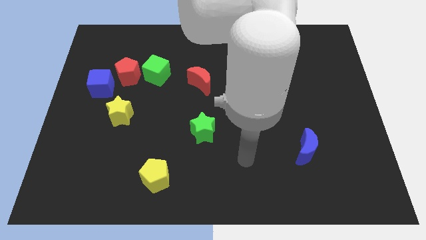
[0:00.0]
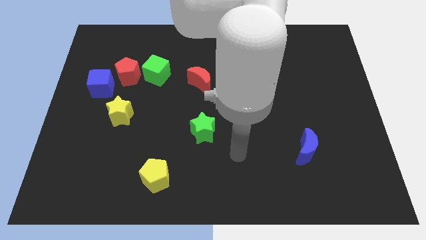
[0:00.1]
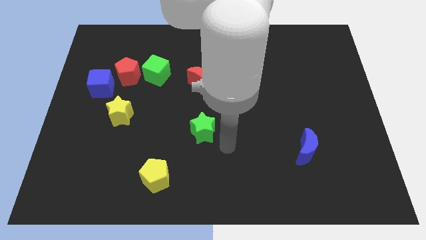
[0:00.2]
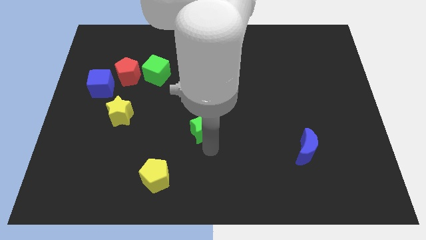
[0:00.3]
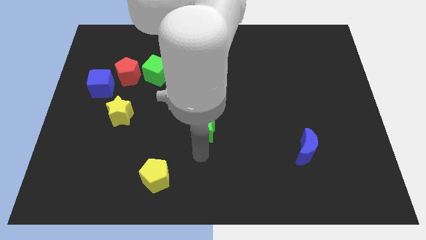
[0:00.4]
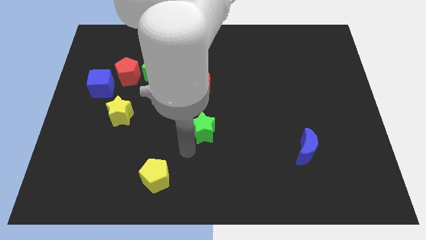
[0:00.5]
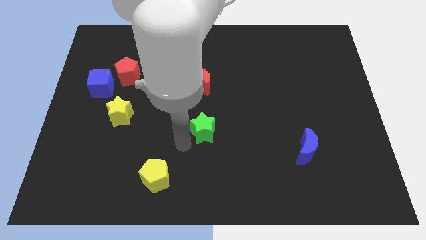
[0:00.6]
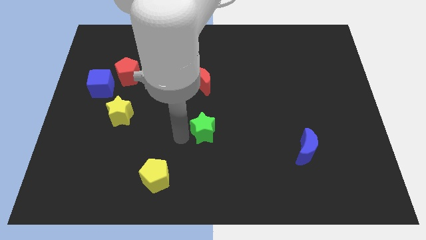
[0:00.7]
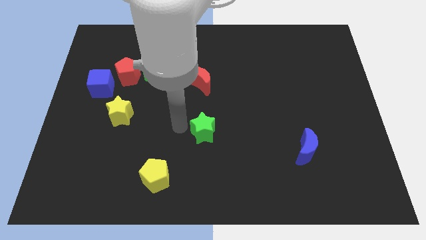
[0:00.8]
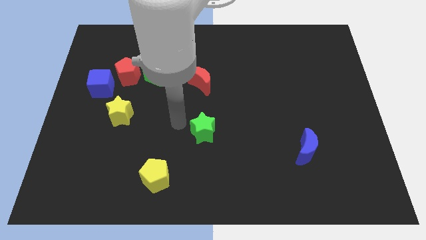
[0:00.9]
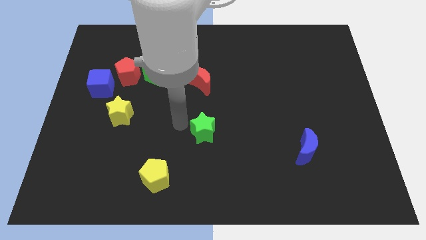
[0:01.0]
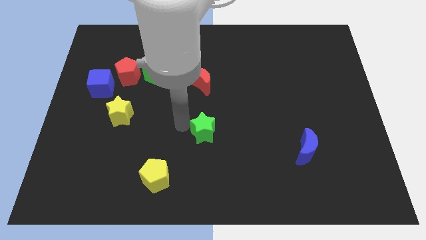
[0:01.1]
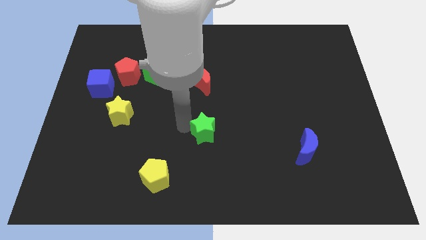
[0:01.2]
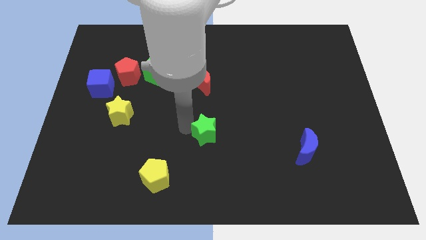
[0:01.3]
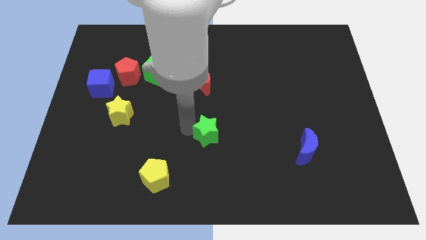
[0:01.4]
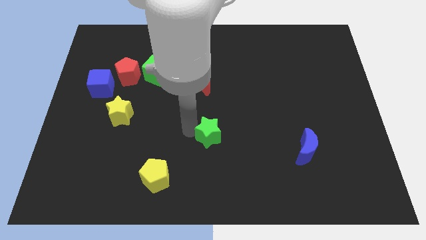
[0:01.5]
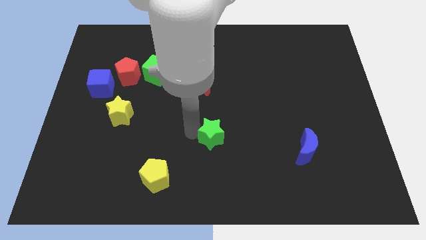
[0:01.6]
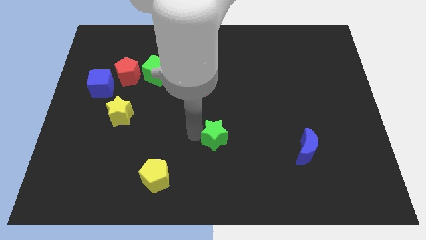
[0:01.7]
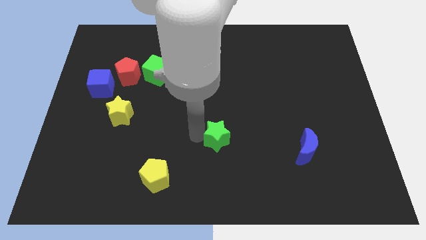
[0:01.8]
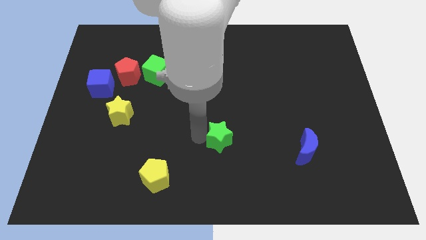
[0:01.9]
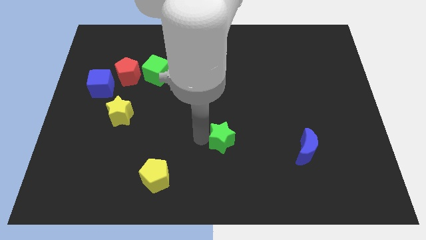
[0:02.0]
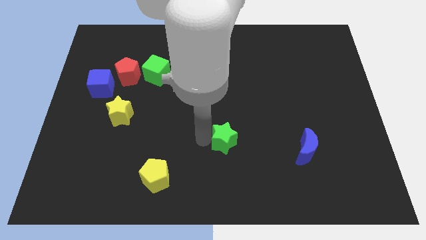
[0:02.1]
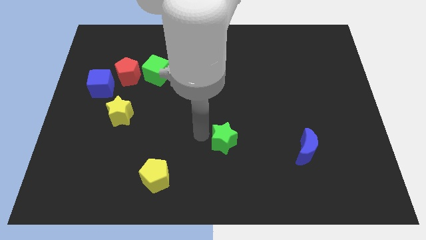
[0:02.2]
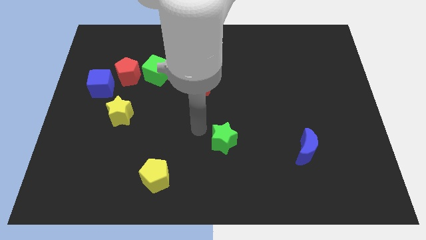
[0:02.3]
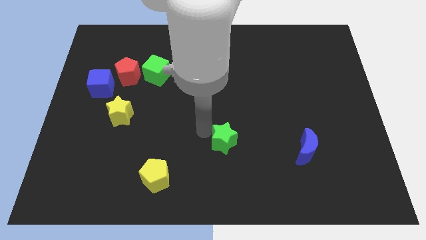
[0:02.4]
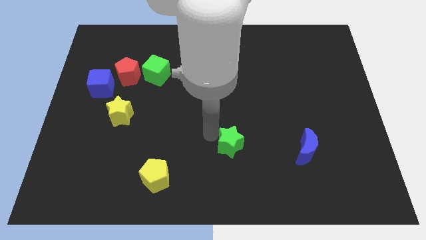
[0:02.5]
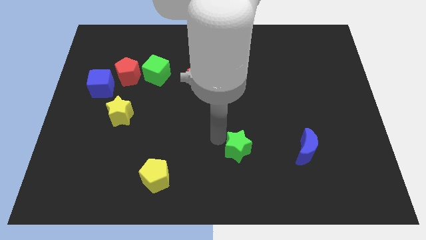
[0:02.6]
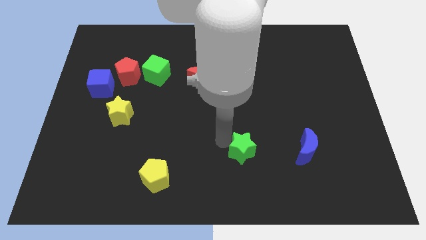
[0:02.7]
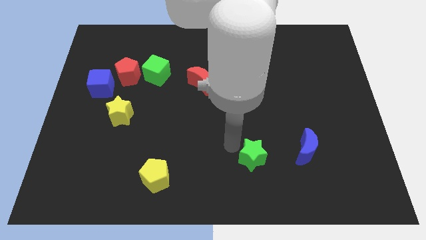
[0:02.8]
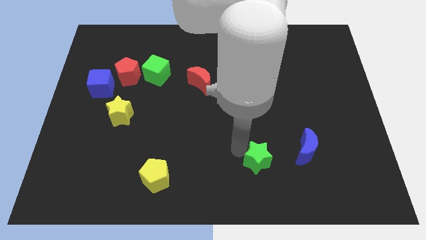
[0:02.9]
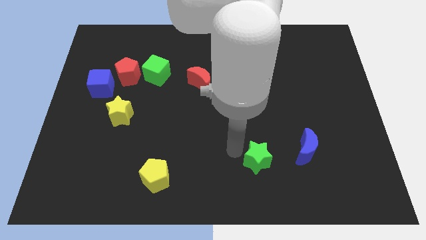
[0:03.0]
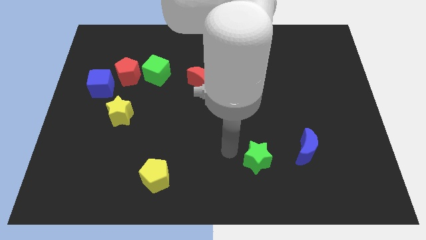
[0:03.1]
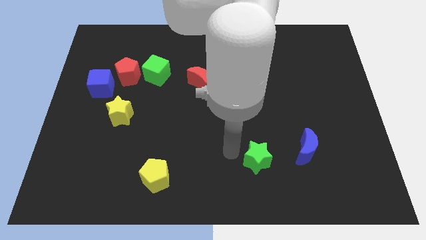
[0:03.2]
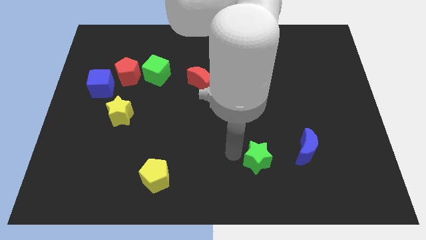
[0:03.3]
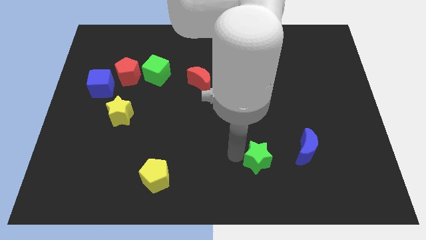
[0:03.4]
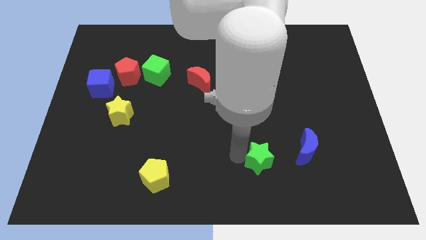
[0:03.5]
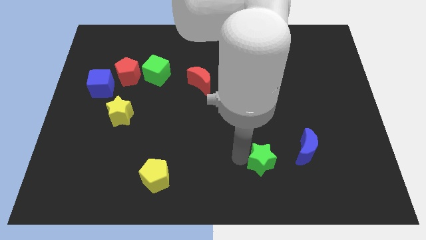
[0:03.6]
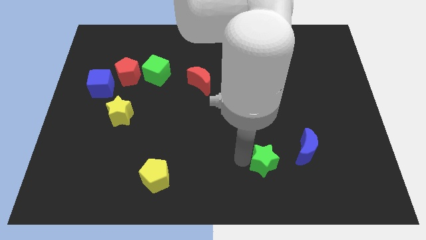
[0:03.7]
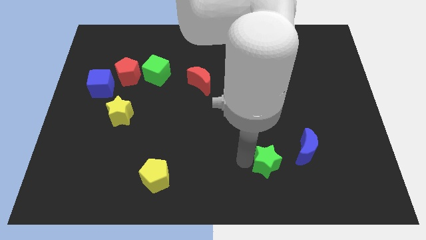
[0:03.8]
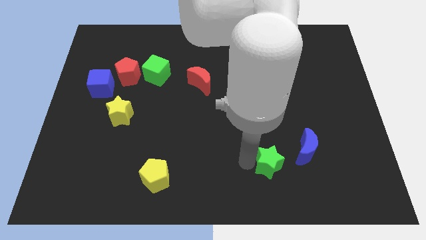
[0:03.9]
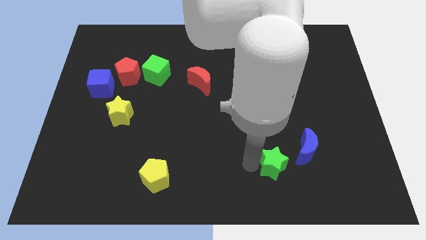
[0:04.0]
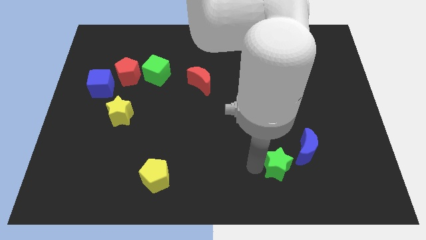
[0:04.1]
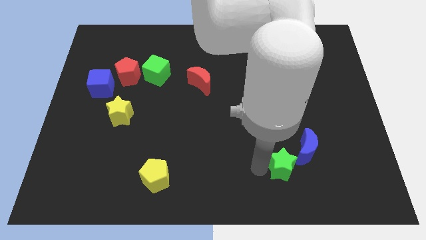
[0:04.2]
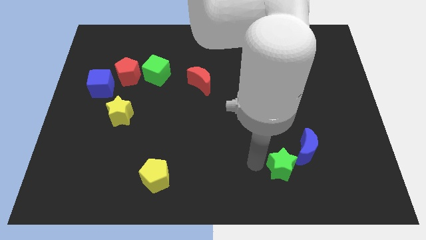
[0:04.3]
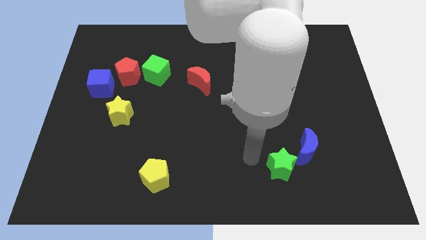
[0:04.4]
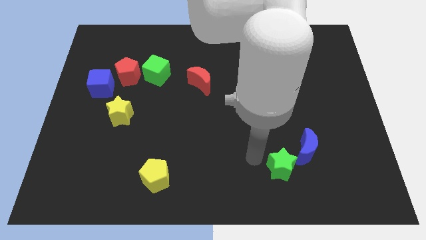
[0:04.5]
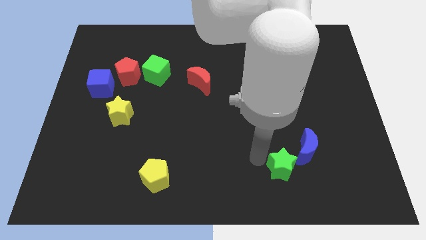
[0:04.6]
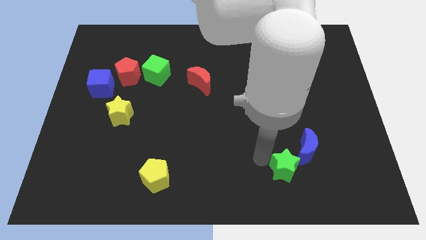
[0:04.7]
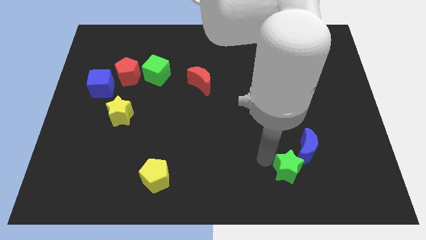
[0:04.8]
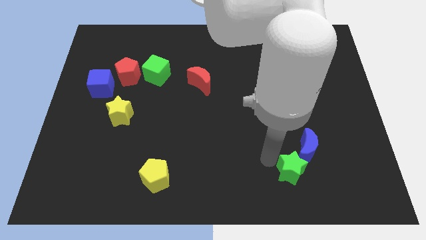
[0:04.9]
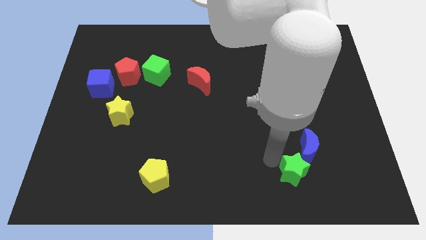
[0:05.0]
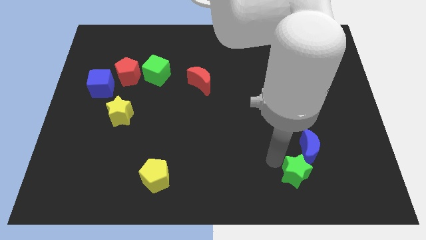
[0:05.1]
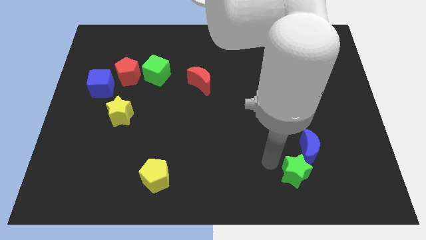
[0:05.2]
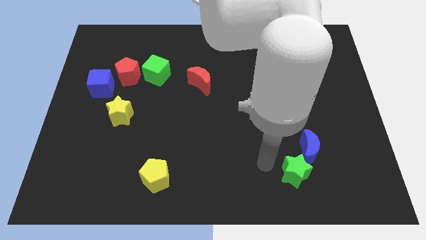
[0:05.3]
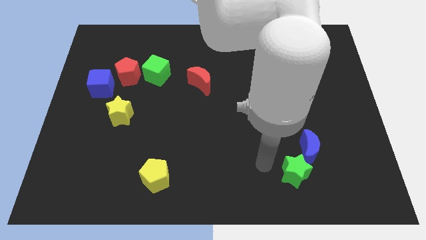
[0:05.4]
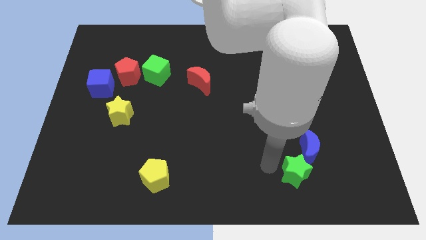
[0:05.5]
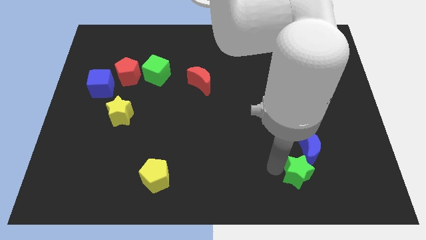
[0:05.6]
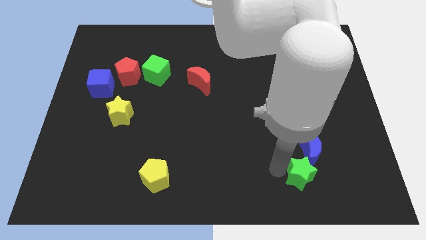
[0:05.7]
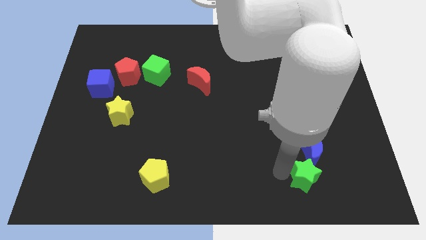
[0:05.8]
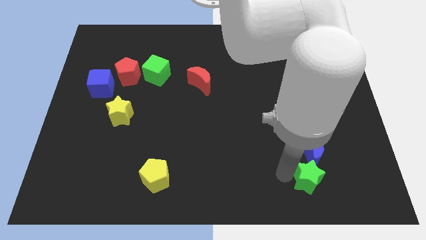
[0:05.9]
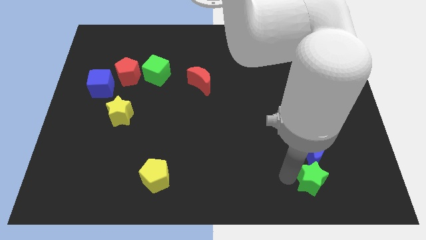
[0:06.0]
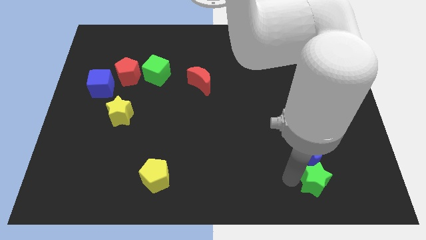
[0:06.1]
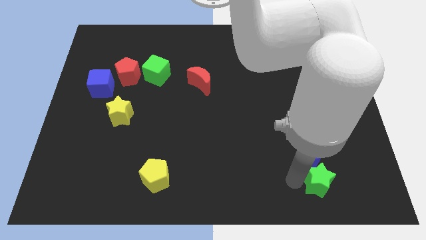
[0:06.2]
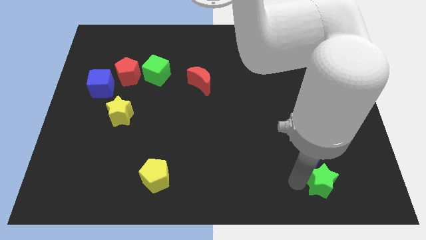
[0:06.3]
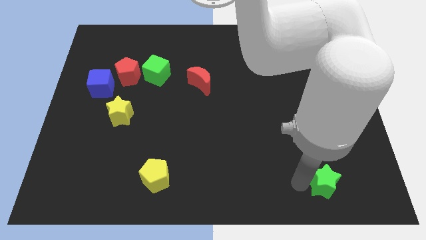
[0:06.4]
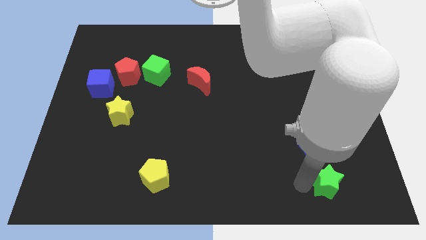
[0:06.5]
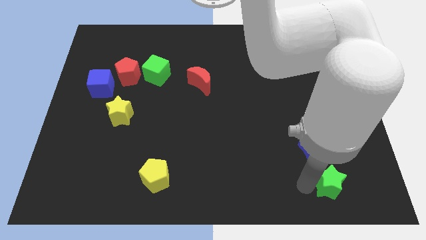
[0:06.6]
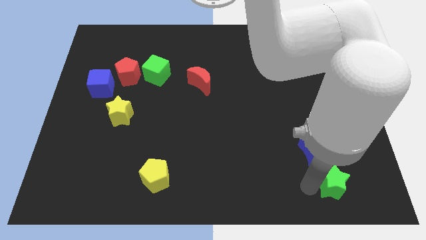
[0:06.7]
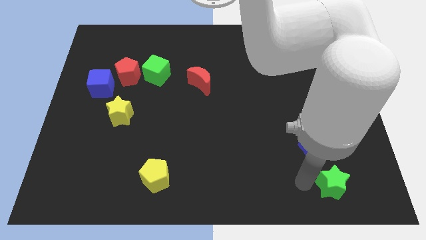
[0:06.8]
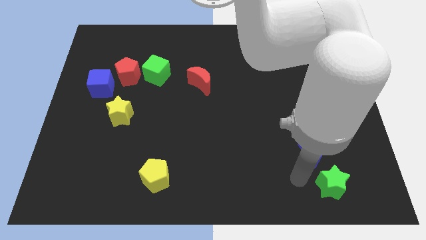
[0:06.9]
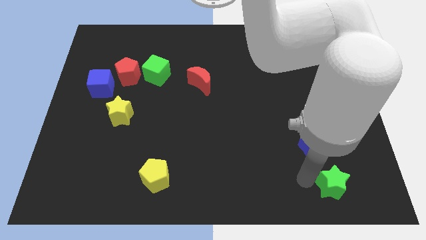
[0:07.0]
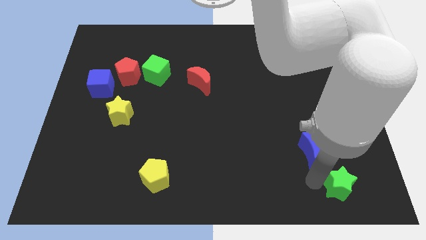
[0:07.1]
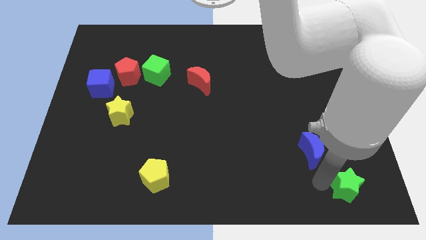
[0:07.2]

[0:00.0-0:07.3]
push the green star to the bottom right
